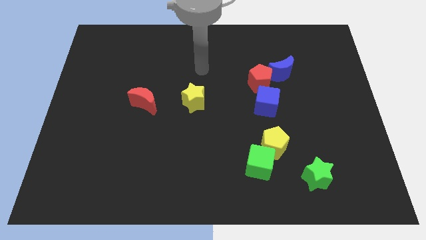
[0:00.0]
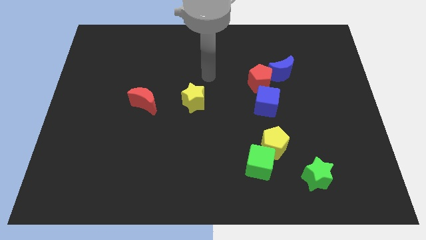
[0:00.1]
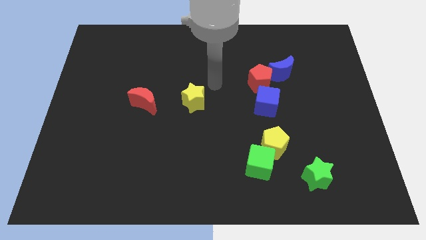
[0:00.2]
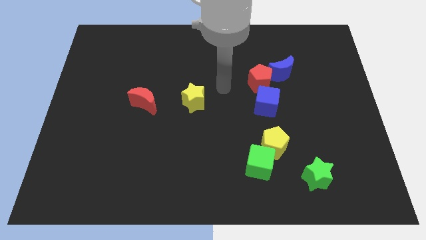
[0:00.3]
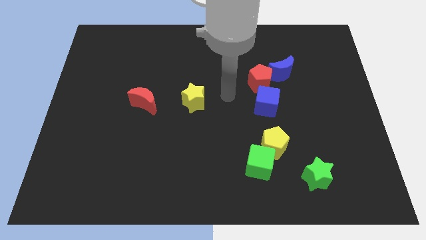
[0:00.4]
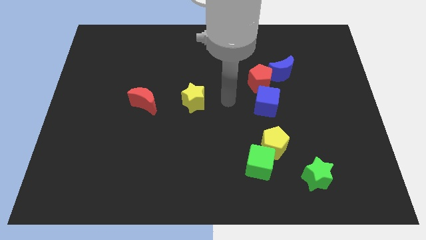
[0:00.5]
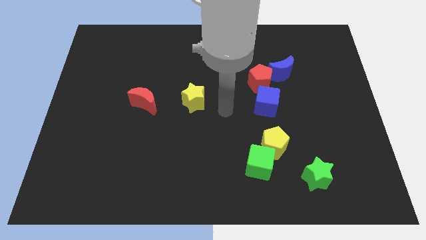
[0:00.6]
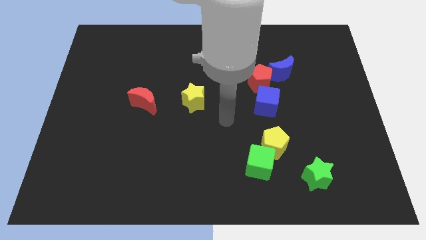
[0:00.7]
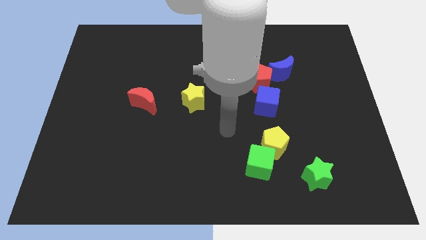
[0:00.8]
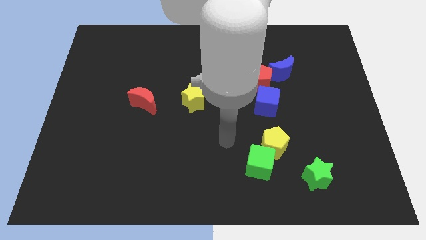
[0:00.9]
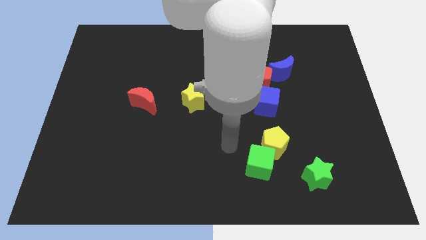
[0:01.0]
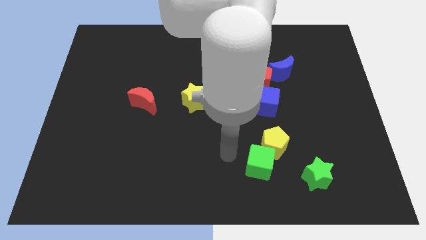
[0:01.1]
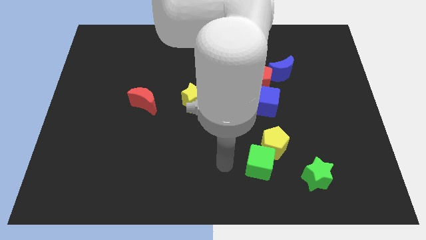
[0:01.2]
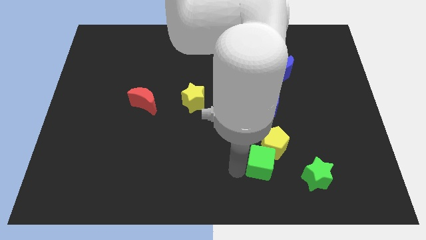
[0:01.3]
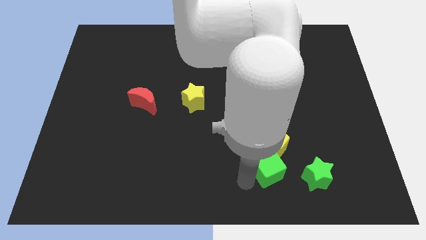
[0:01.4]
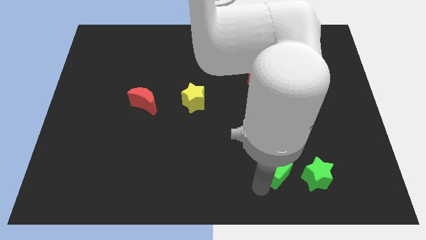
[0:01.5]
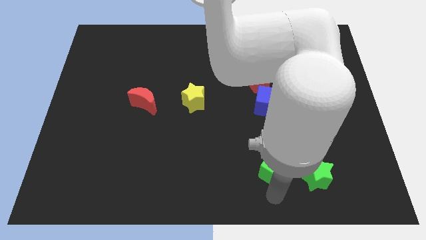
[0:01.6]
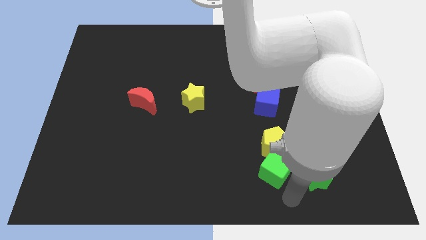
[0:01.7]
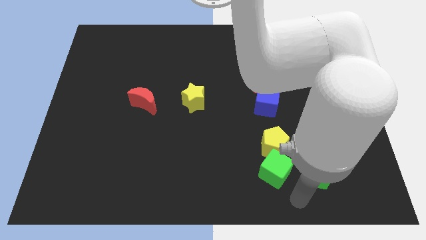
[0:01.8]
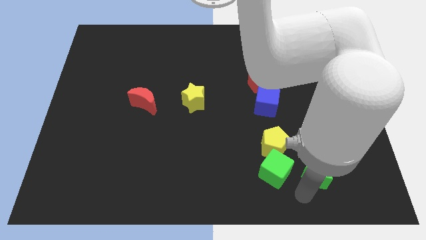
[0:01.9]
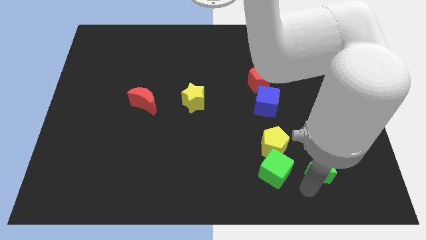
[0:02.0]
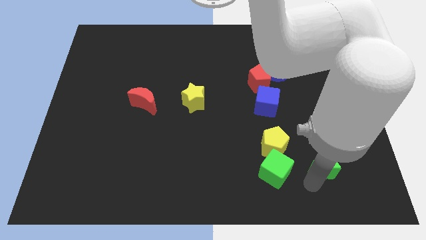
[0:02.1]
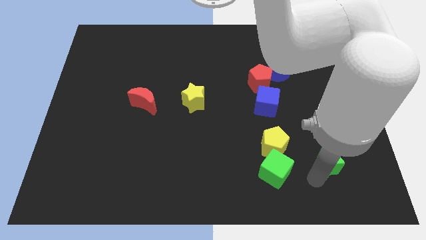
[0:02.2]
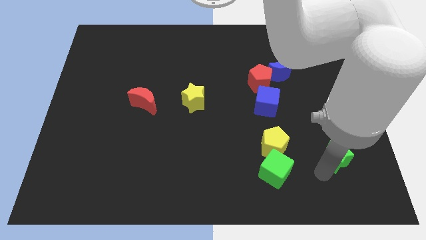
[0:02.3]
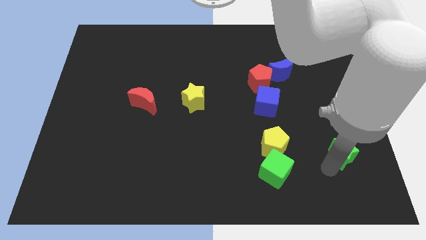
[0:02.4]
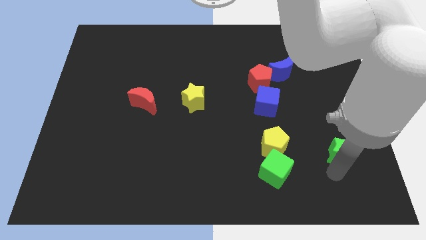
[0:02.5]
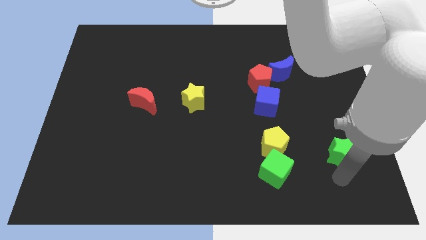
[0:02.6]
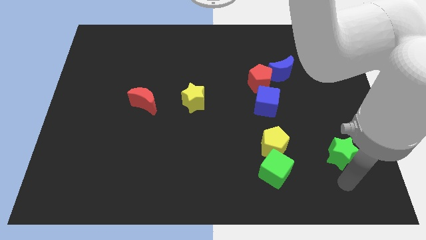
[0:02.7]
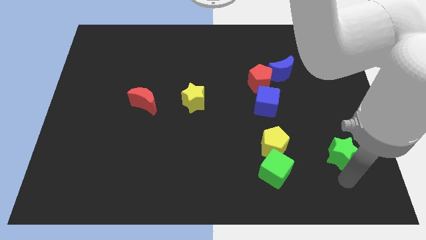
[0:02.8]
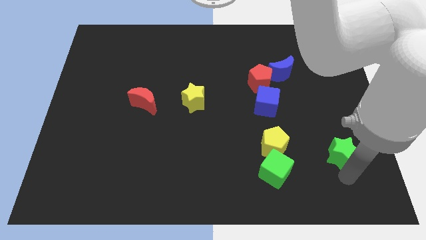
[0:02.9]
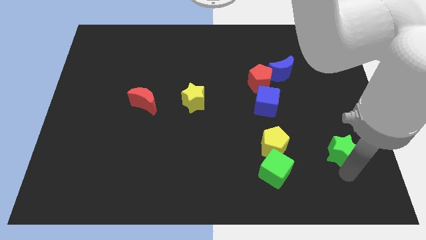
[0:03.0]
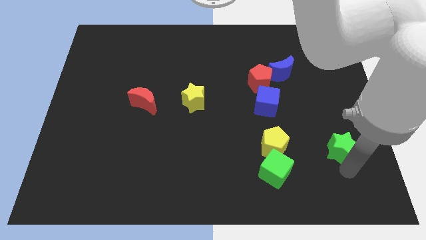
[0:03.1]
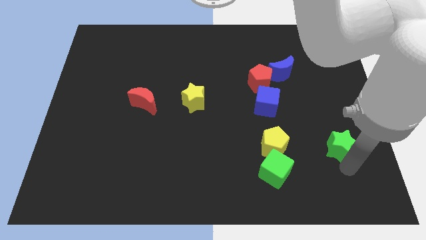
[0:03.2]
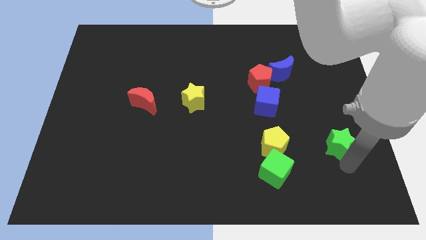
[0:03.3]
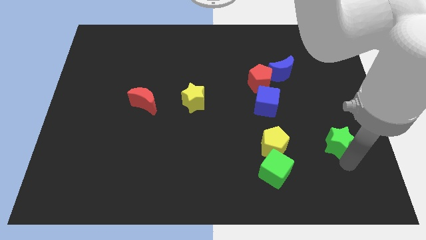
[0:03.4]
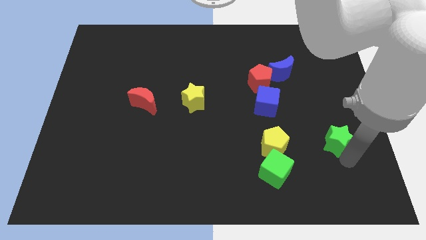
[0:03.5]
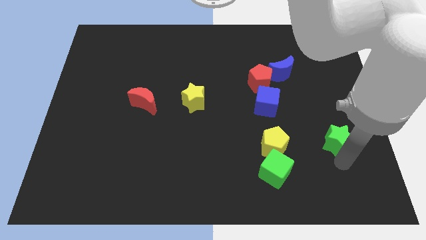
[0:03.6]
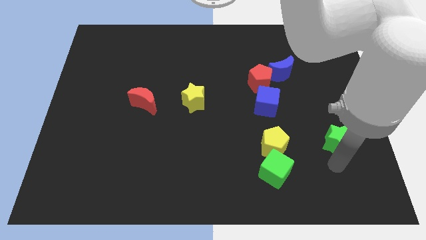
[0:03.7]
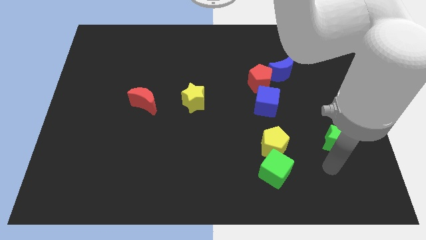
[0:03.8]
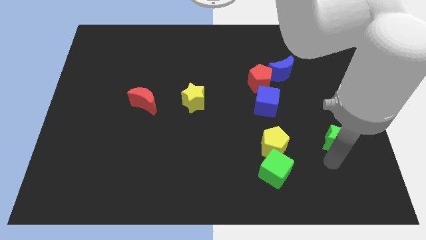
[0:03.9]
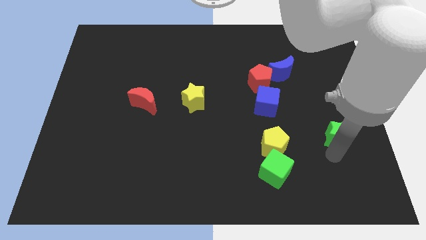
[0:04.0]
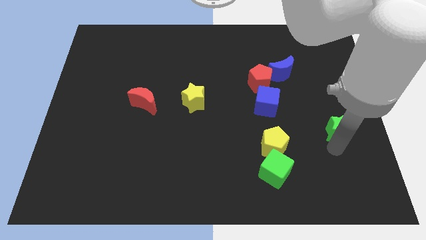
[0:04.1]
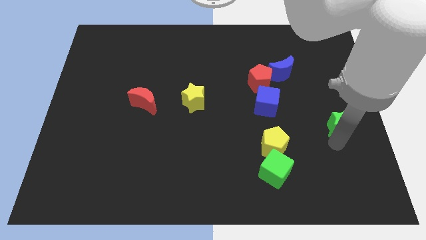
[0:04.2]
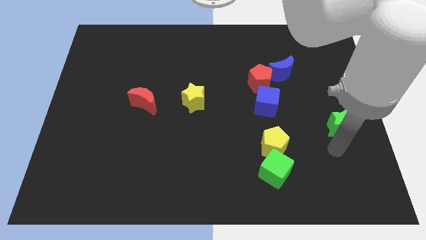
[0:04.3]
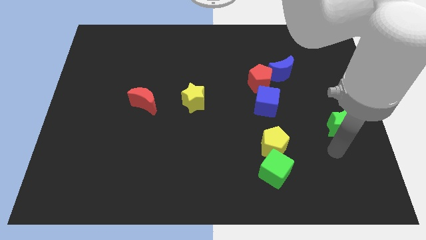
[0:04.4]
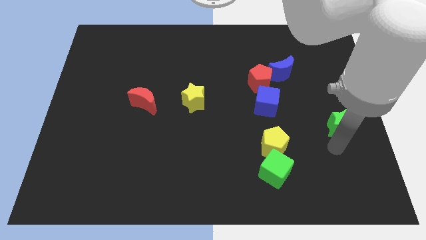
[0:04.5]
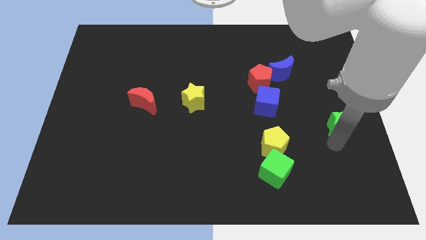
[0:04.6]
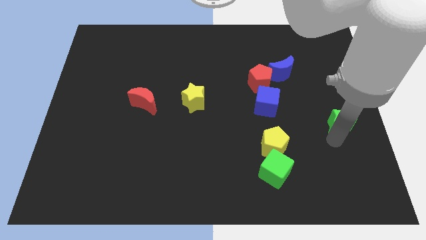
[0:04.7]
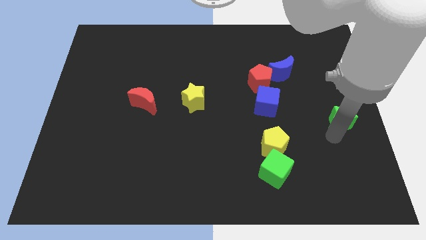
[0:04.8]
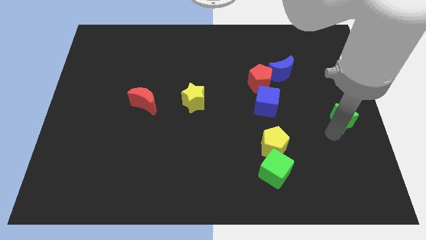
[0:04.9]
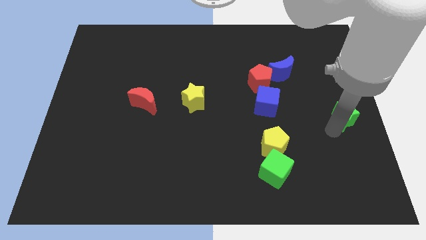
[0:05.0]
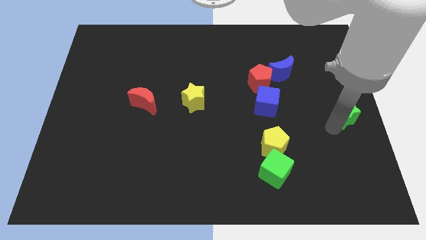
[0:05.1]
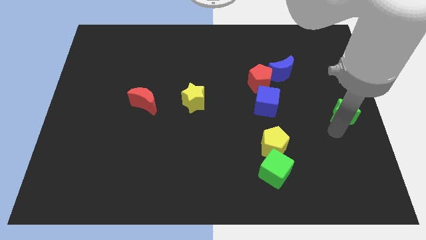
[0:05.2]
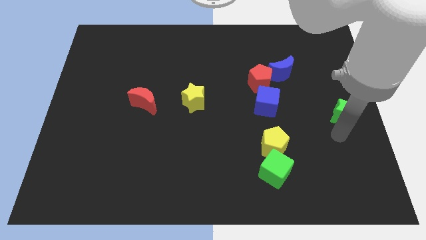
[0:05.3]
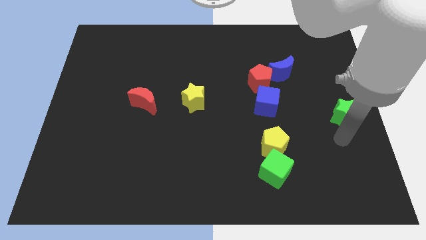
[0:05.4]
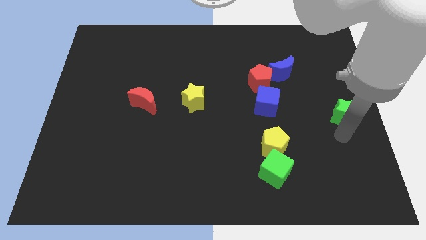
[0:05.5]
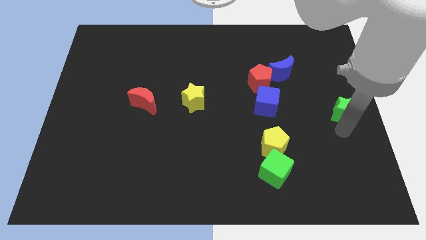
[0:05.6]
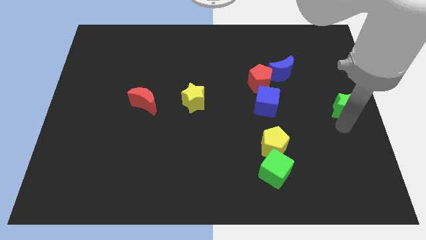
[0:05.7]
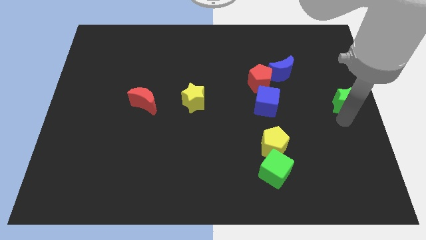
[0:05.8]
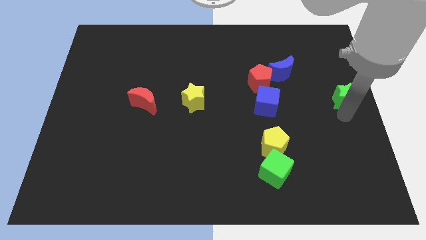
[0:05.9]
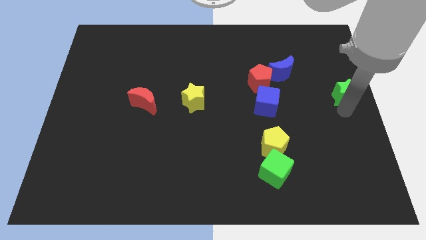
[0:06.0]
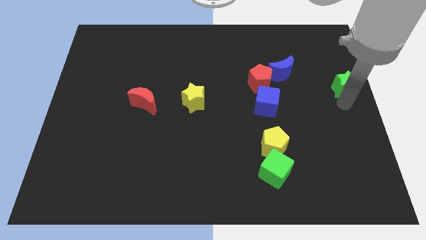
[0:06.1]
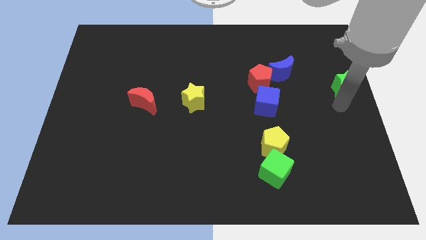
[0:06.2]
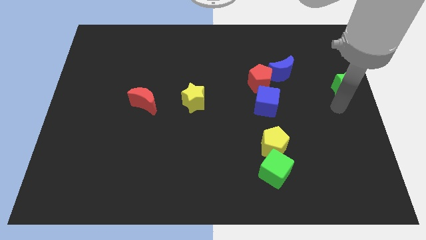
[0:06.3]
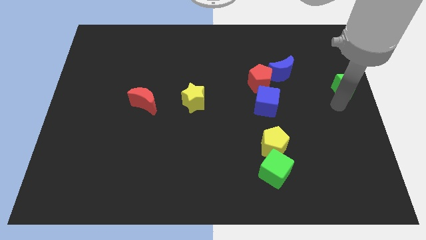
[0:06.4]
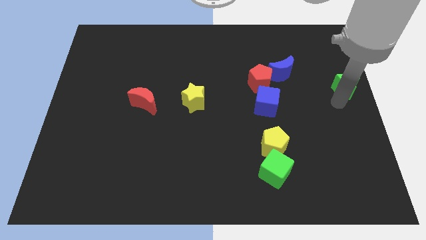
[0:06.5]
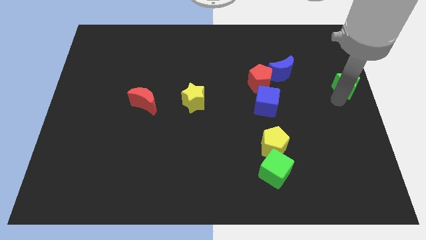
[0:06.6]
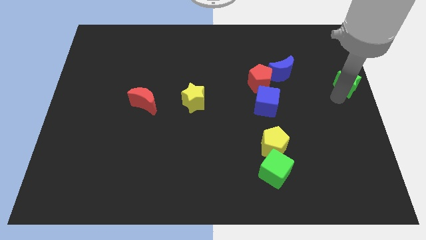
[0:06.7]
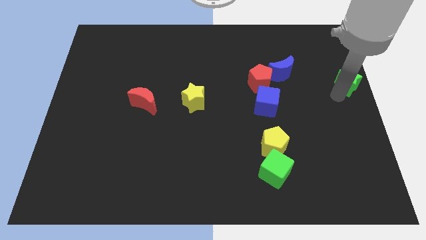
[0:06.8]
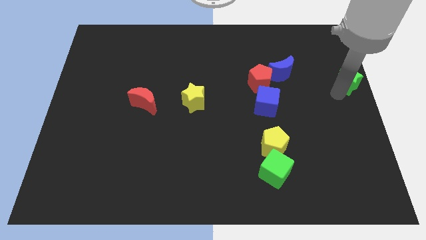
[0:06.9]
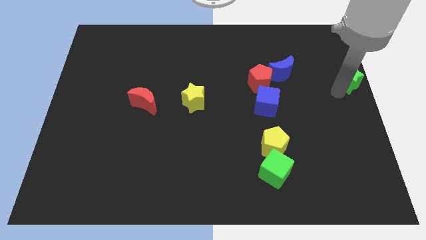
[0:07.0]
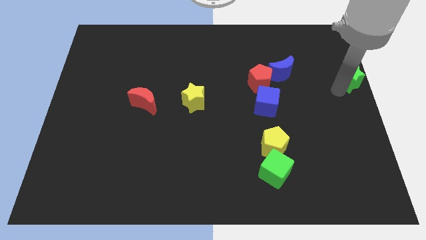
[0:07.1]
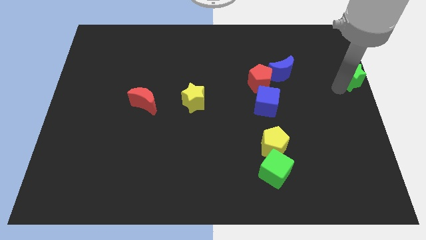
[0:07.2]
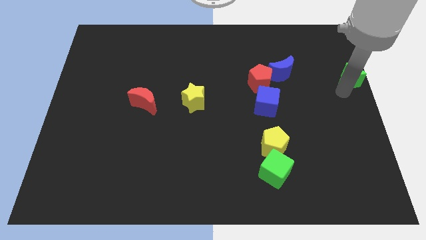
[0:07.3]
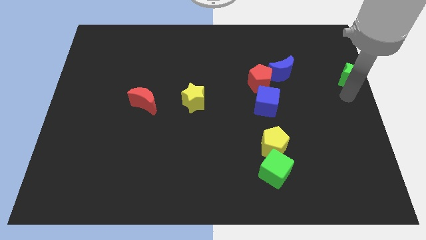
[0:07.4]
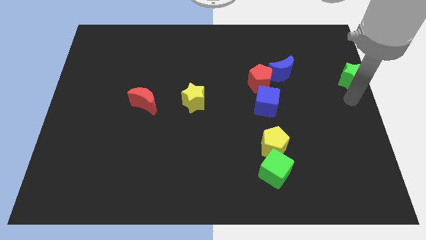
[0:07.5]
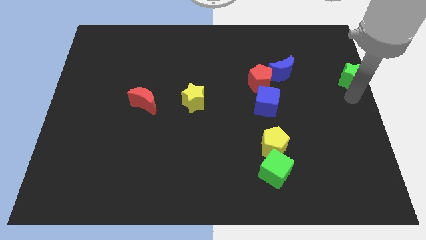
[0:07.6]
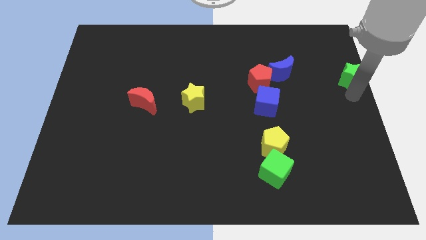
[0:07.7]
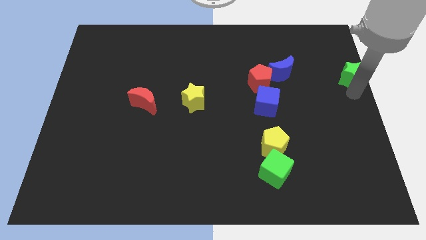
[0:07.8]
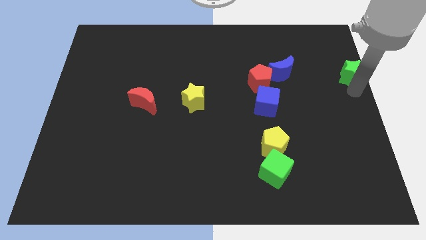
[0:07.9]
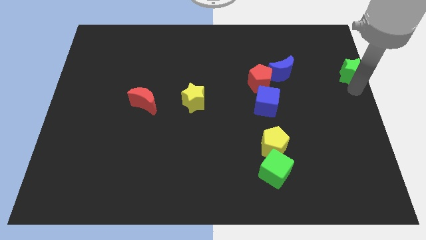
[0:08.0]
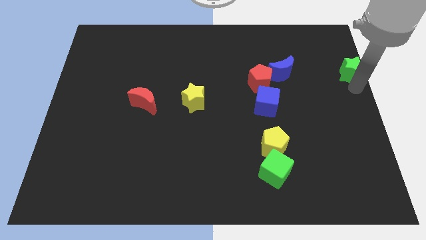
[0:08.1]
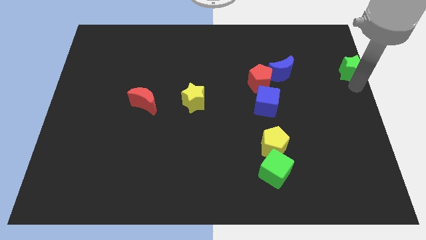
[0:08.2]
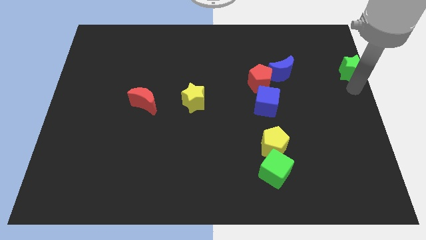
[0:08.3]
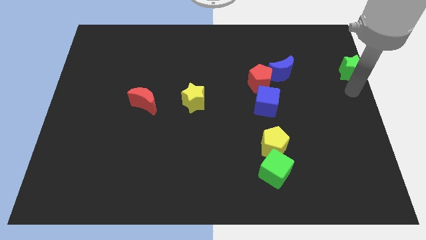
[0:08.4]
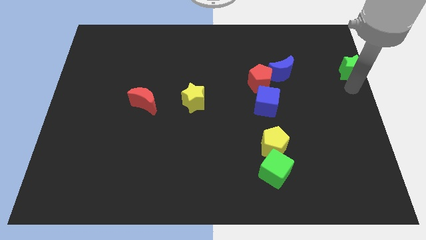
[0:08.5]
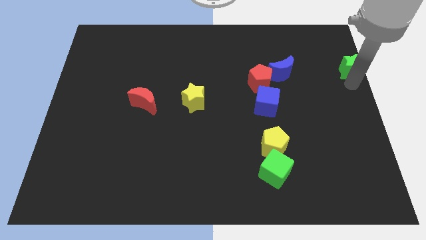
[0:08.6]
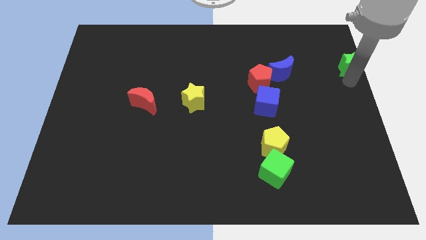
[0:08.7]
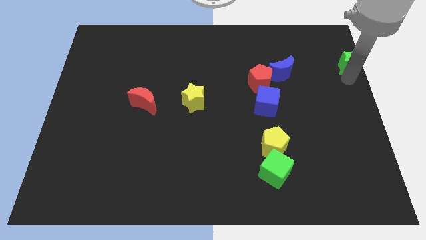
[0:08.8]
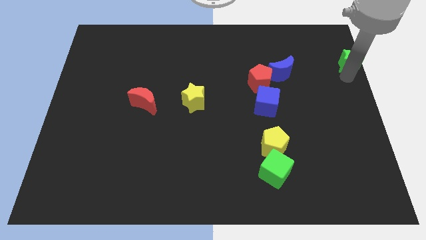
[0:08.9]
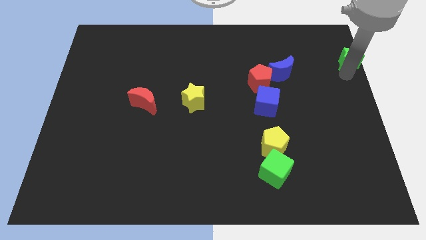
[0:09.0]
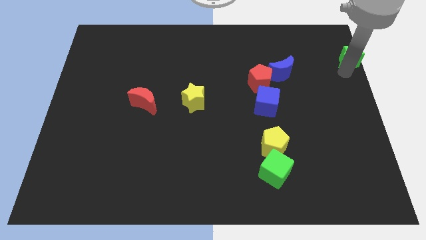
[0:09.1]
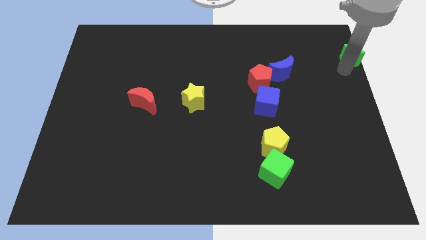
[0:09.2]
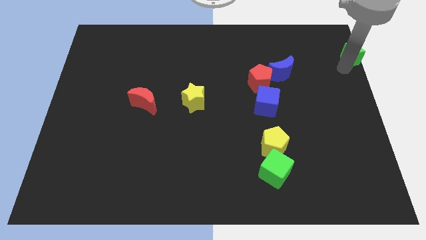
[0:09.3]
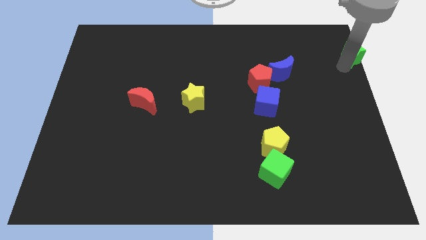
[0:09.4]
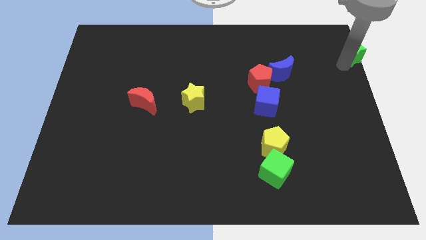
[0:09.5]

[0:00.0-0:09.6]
push the green star to the top right
